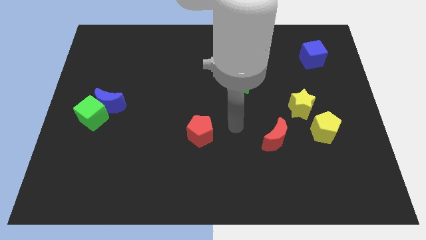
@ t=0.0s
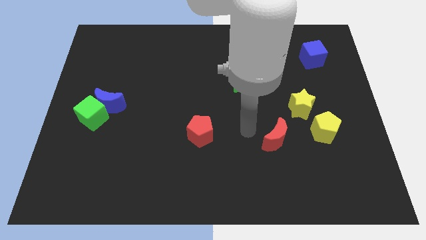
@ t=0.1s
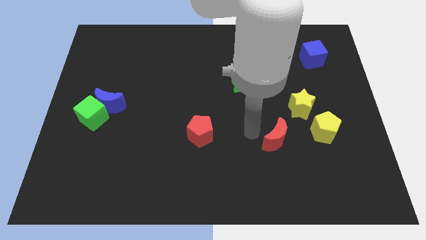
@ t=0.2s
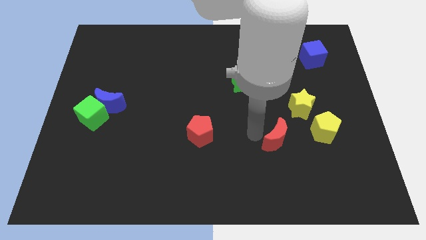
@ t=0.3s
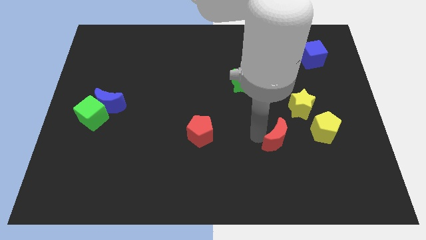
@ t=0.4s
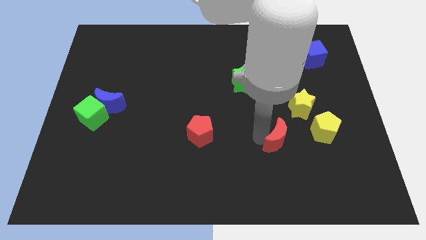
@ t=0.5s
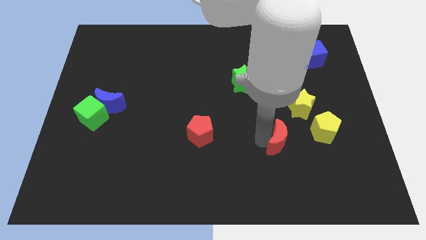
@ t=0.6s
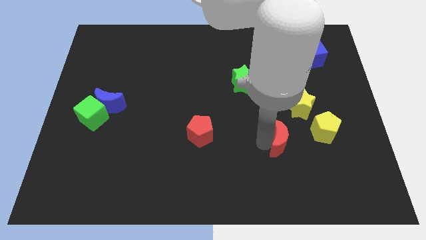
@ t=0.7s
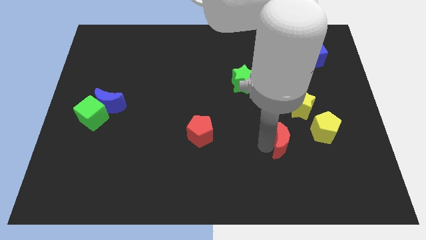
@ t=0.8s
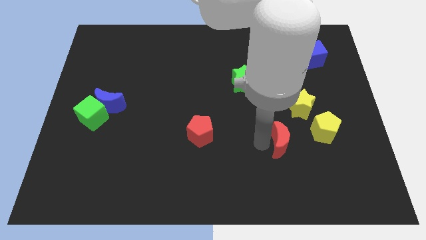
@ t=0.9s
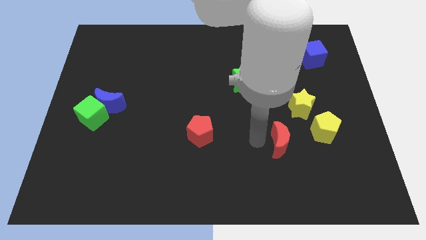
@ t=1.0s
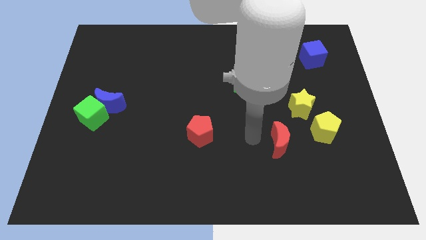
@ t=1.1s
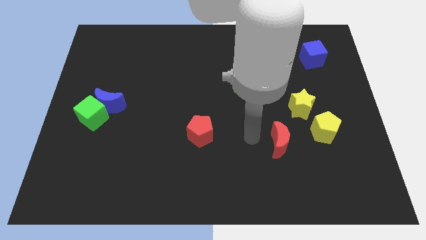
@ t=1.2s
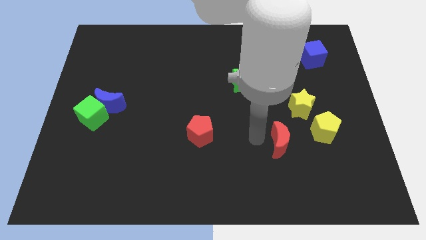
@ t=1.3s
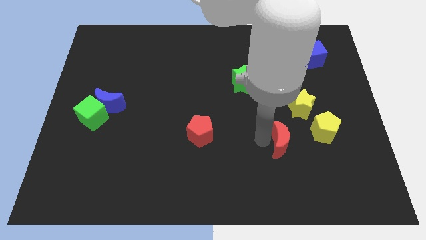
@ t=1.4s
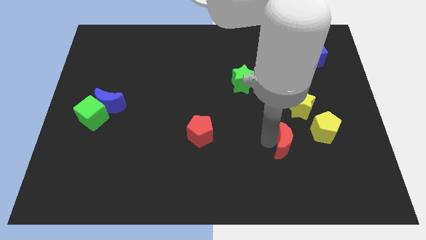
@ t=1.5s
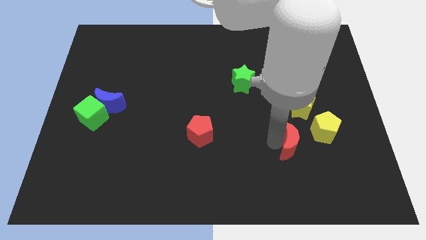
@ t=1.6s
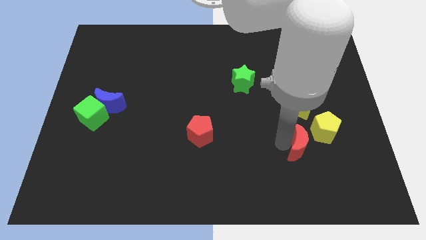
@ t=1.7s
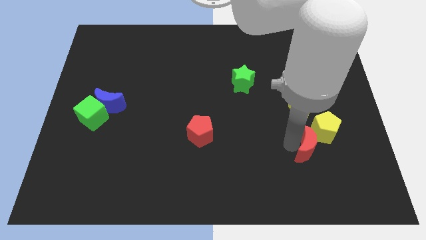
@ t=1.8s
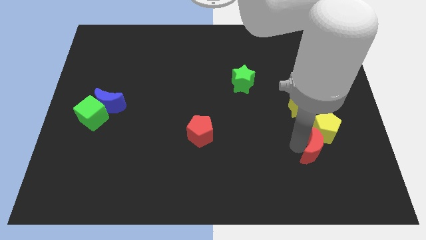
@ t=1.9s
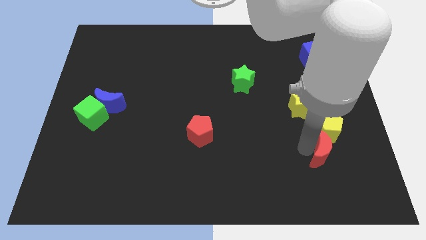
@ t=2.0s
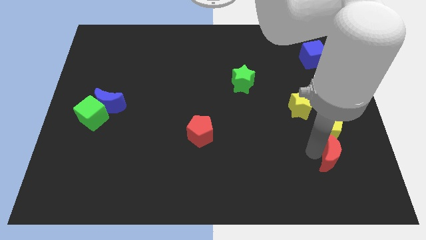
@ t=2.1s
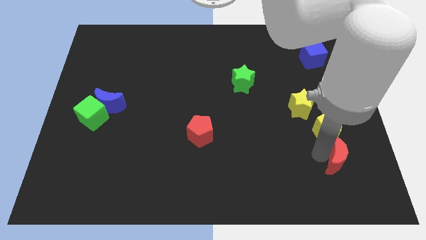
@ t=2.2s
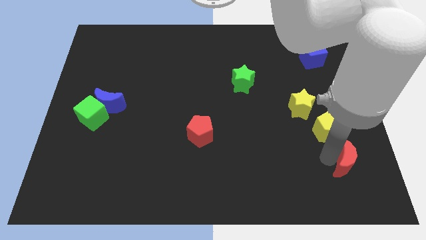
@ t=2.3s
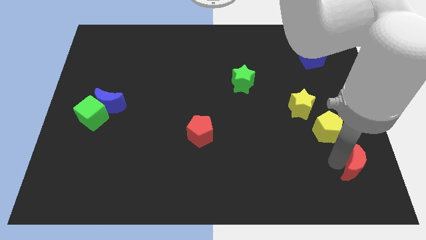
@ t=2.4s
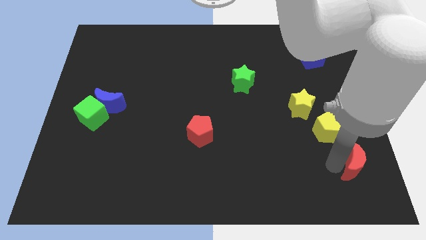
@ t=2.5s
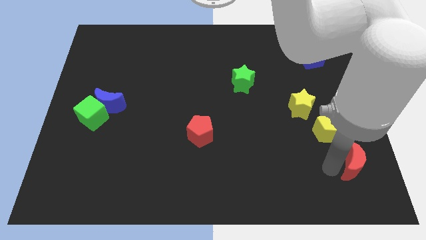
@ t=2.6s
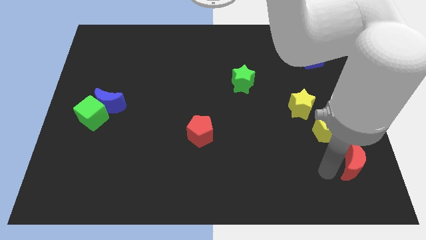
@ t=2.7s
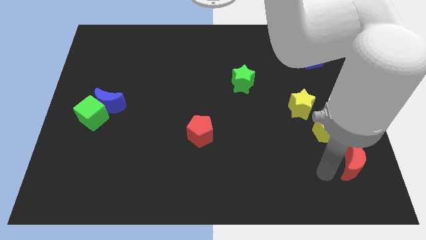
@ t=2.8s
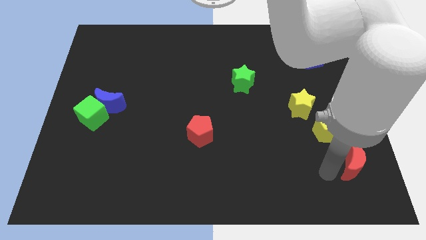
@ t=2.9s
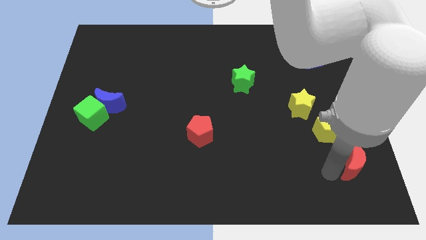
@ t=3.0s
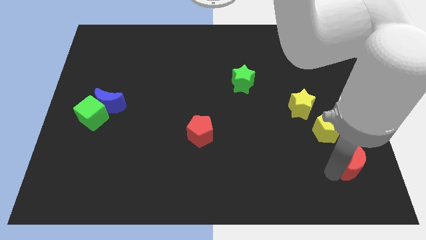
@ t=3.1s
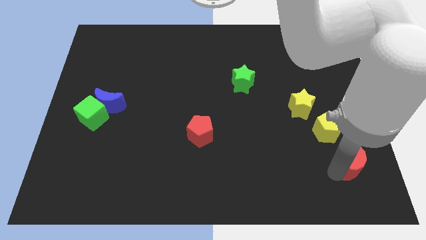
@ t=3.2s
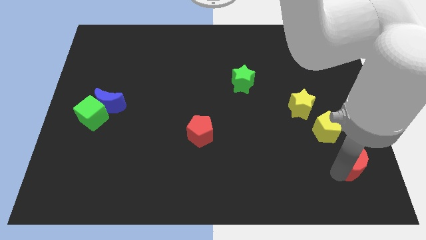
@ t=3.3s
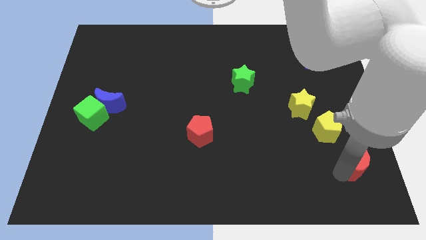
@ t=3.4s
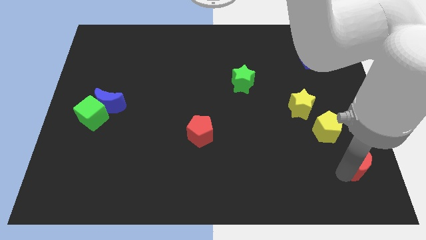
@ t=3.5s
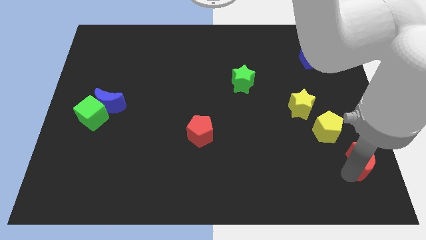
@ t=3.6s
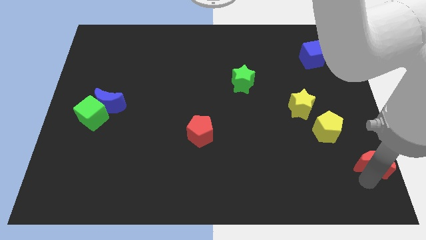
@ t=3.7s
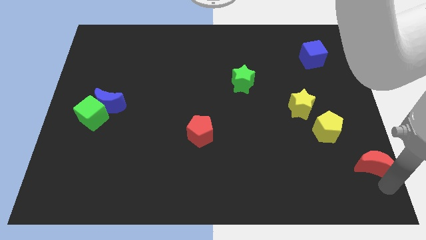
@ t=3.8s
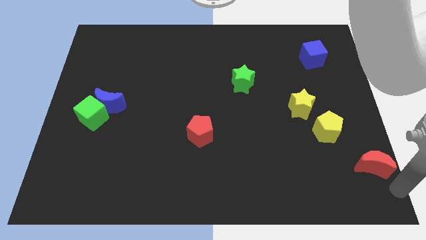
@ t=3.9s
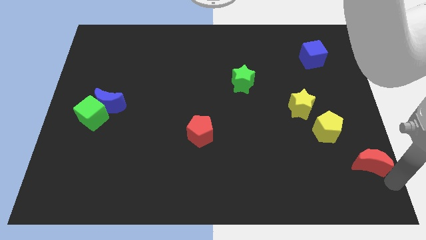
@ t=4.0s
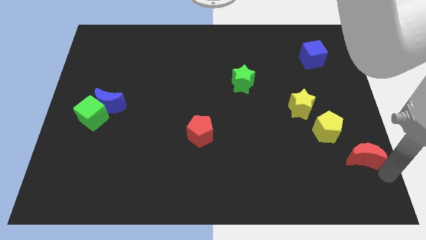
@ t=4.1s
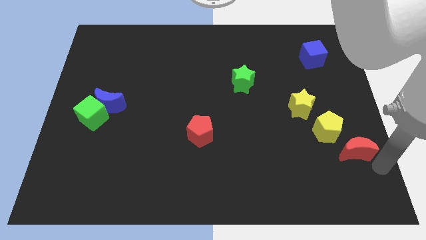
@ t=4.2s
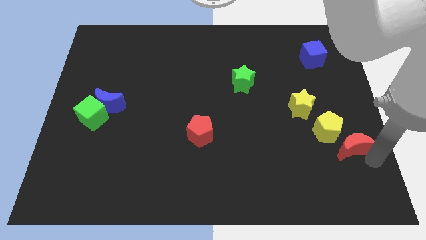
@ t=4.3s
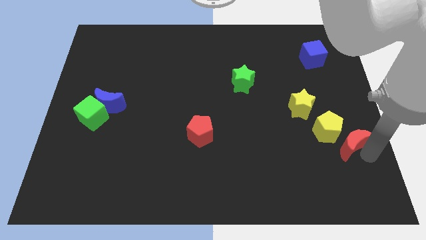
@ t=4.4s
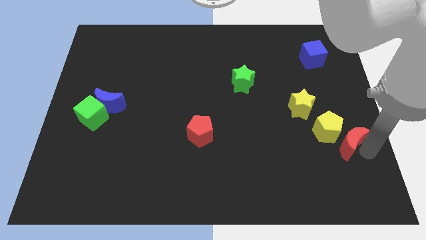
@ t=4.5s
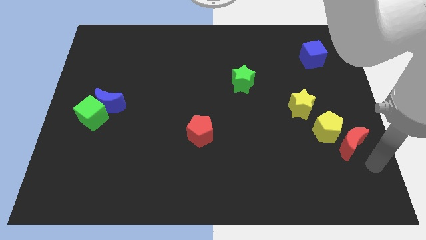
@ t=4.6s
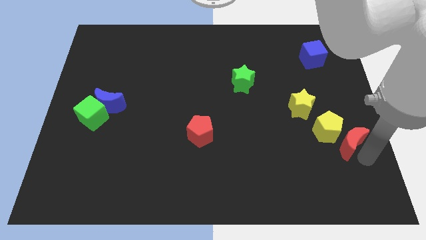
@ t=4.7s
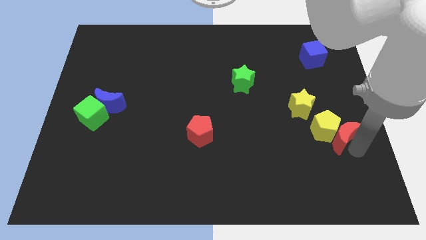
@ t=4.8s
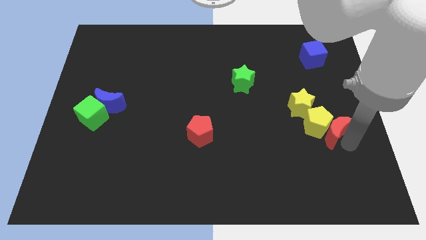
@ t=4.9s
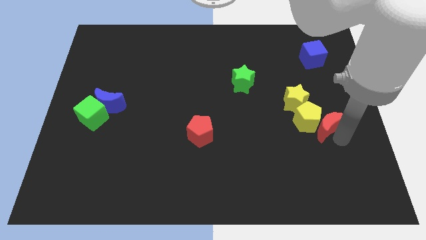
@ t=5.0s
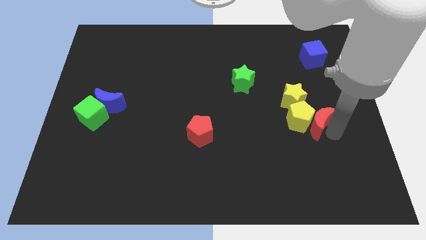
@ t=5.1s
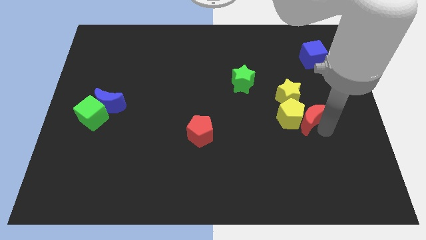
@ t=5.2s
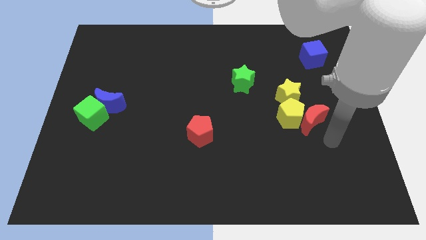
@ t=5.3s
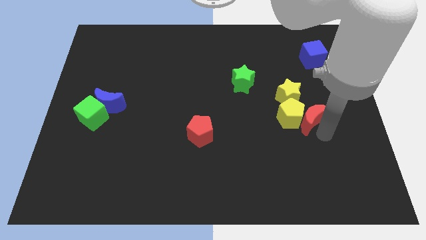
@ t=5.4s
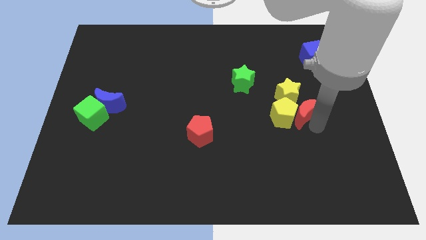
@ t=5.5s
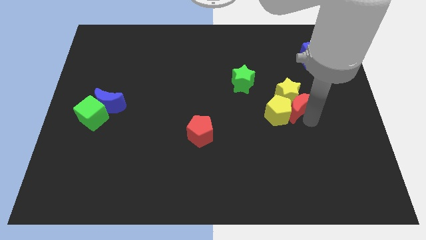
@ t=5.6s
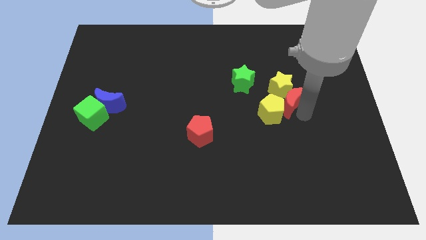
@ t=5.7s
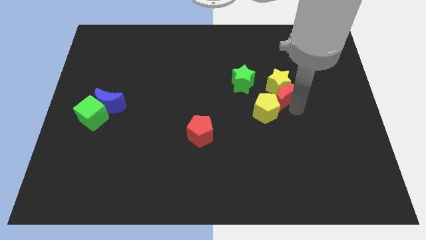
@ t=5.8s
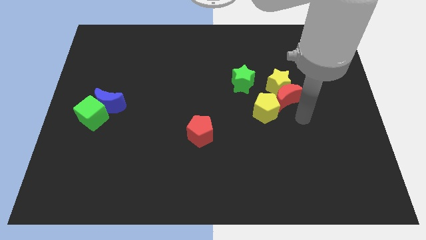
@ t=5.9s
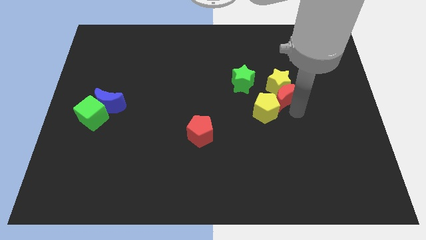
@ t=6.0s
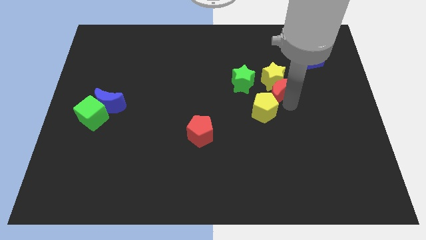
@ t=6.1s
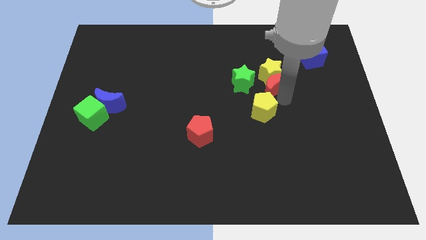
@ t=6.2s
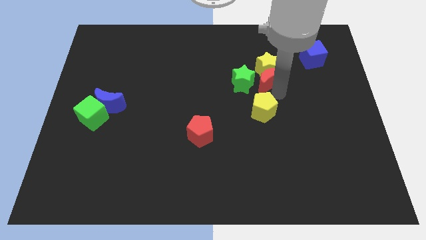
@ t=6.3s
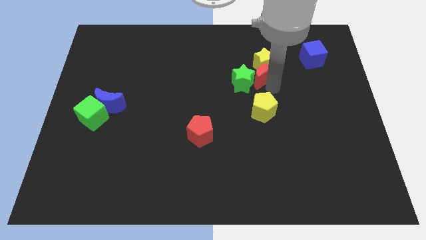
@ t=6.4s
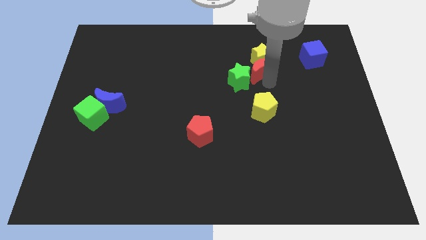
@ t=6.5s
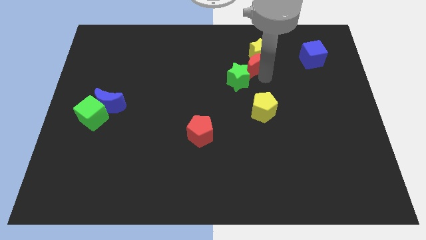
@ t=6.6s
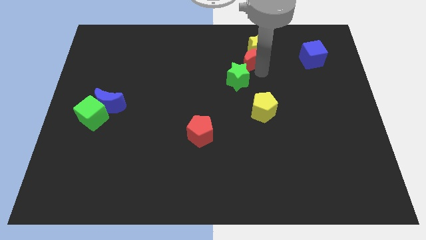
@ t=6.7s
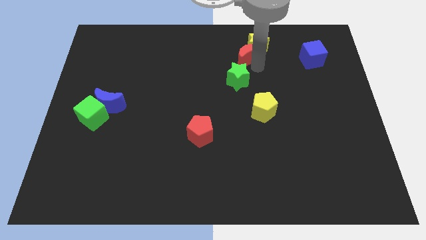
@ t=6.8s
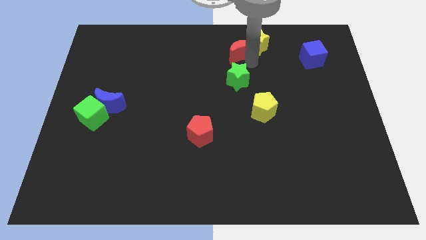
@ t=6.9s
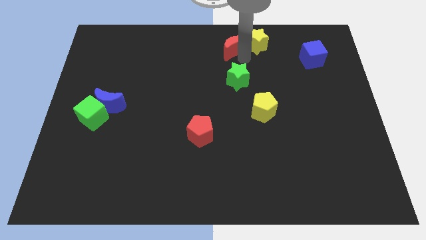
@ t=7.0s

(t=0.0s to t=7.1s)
move the red moon to the top side
